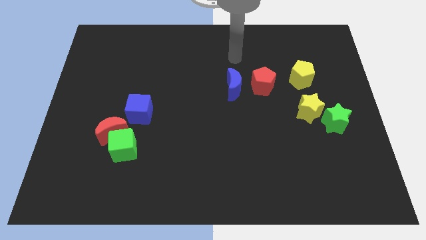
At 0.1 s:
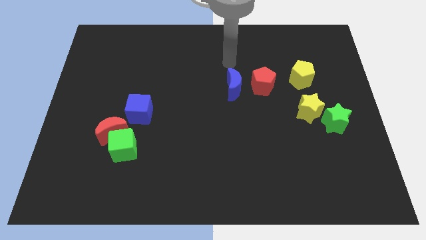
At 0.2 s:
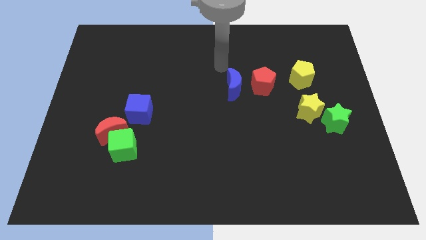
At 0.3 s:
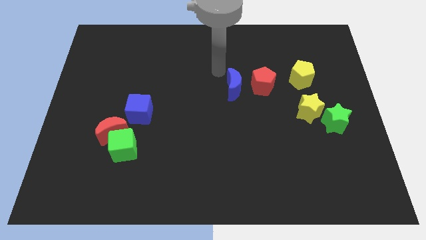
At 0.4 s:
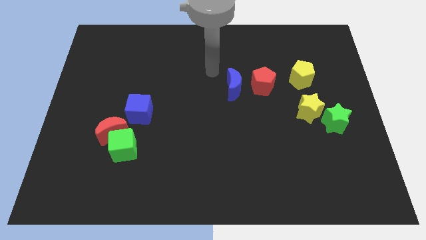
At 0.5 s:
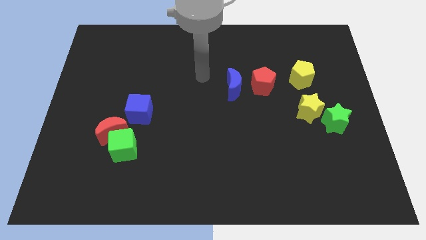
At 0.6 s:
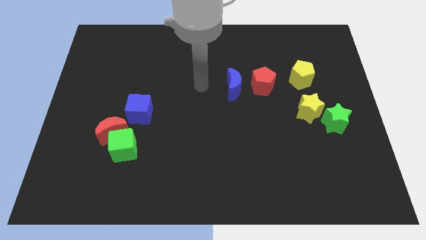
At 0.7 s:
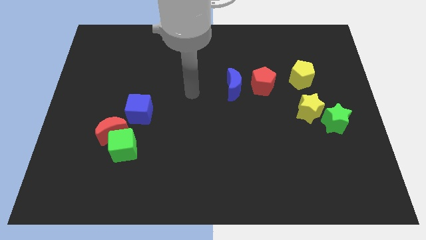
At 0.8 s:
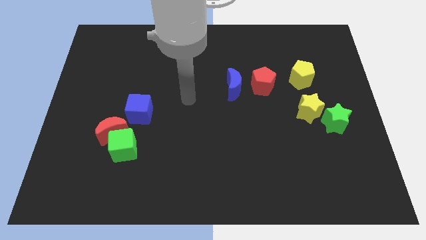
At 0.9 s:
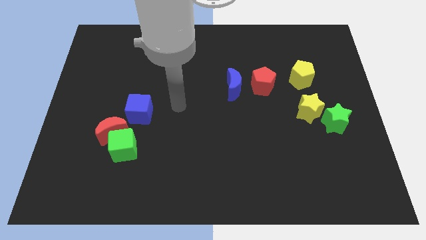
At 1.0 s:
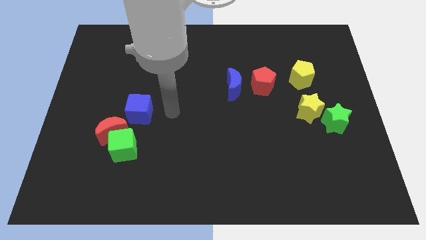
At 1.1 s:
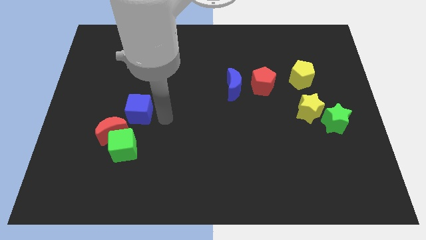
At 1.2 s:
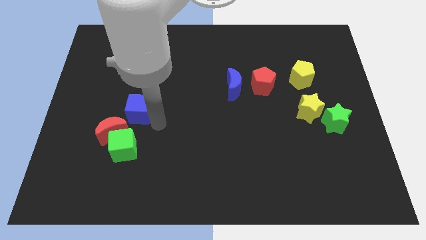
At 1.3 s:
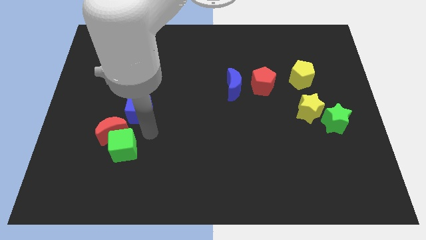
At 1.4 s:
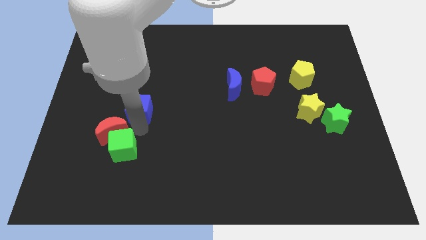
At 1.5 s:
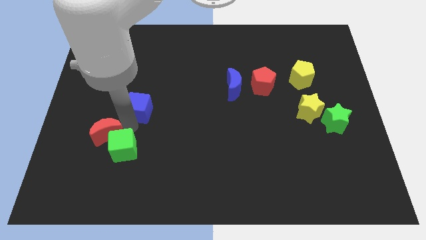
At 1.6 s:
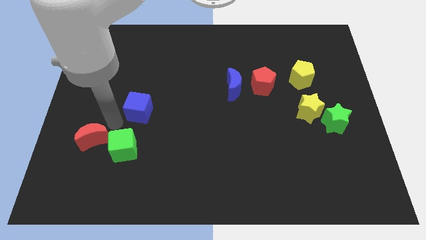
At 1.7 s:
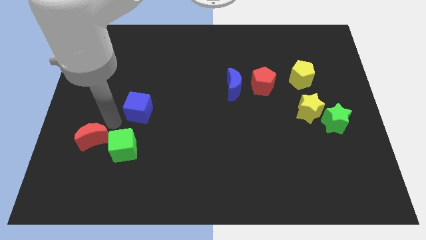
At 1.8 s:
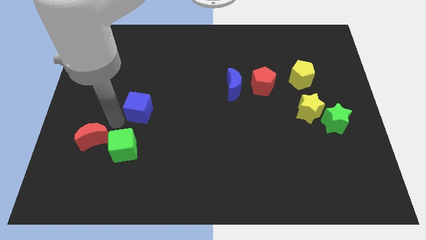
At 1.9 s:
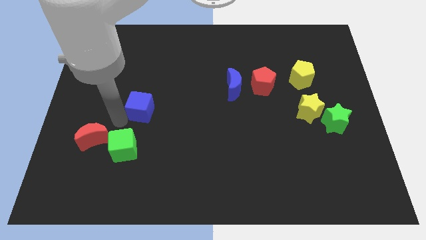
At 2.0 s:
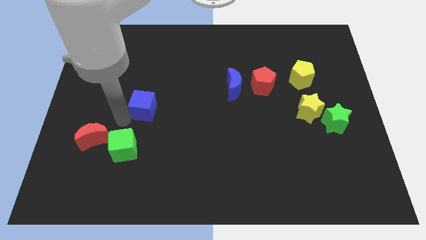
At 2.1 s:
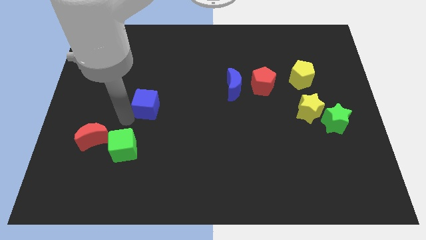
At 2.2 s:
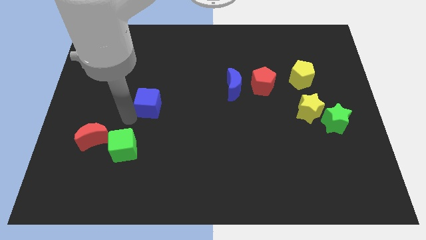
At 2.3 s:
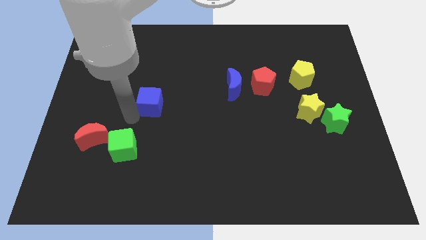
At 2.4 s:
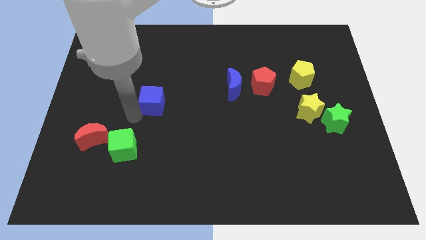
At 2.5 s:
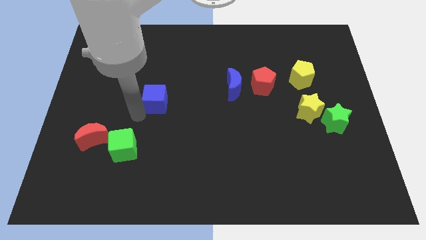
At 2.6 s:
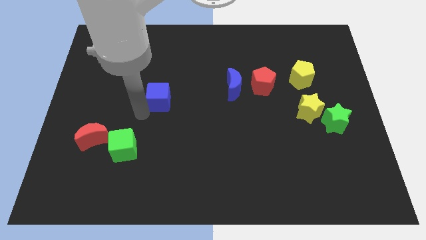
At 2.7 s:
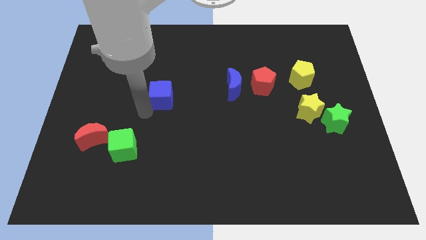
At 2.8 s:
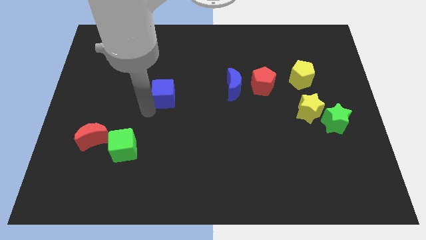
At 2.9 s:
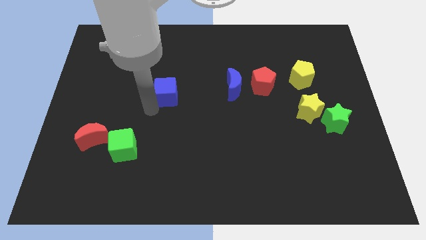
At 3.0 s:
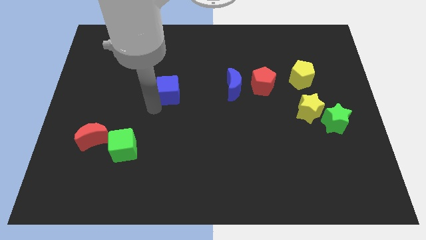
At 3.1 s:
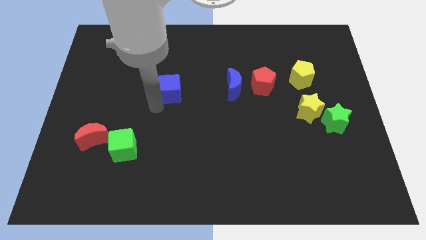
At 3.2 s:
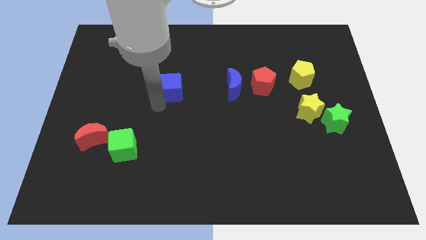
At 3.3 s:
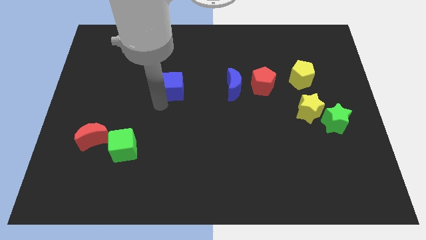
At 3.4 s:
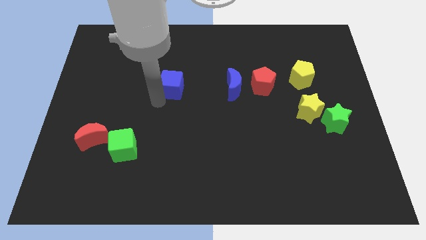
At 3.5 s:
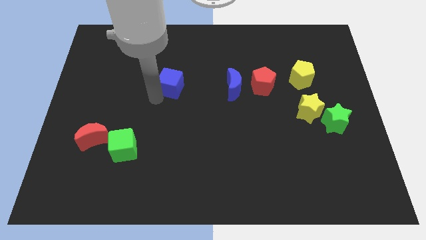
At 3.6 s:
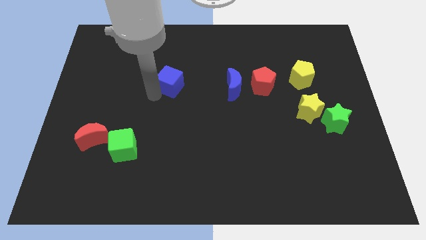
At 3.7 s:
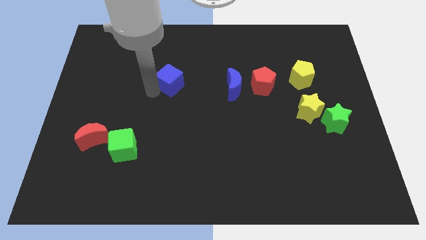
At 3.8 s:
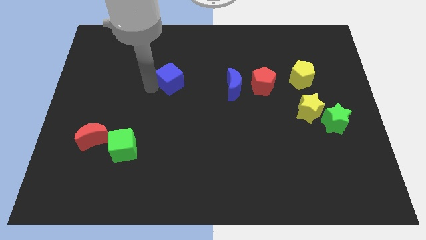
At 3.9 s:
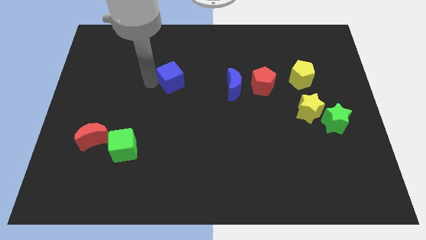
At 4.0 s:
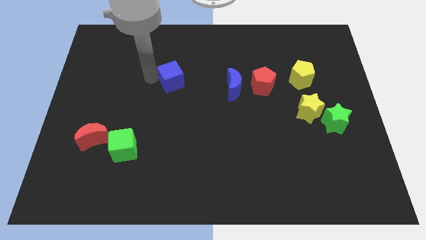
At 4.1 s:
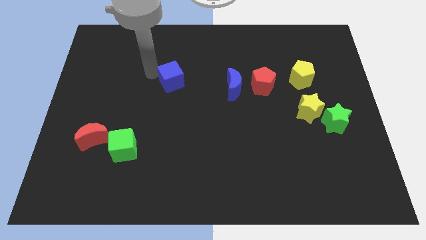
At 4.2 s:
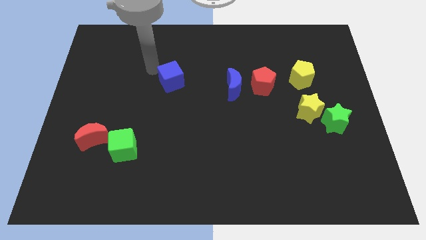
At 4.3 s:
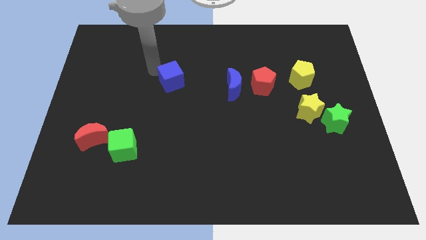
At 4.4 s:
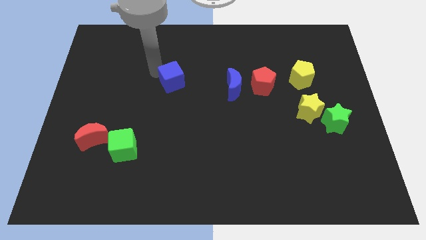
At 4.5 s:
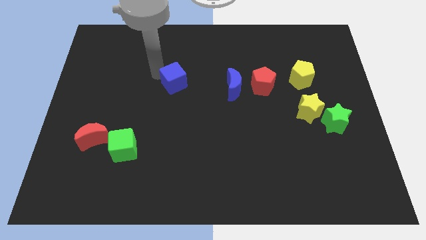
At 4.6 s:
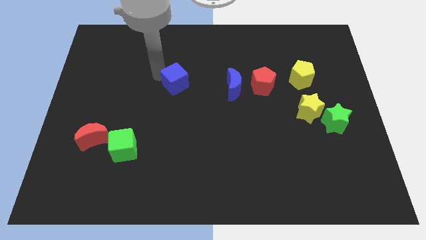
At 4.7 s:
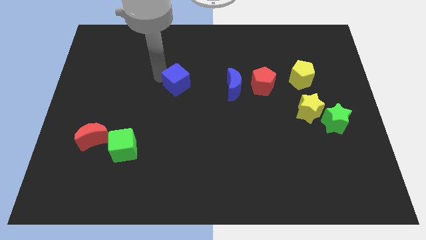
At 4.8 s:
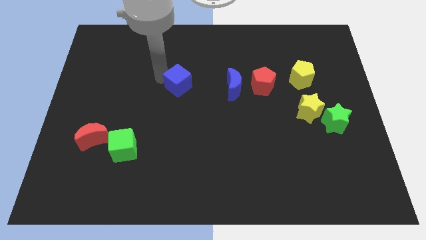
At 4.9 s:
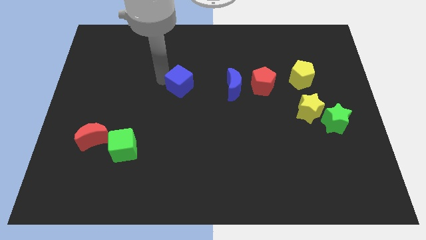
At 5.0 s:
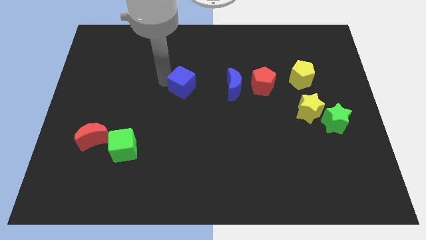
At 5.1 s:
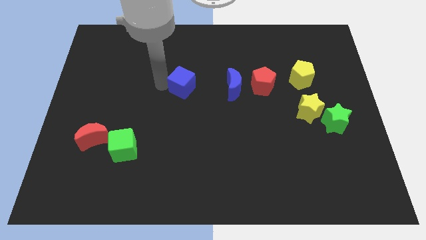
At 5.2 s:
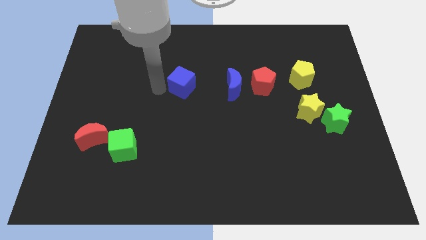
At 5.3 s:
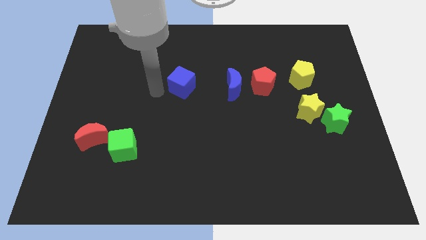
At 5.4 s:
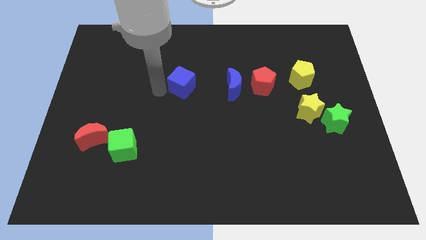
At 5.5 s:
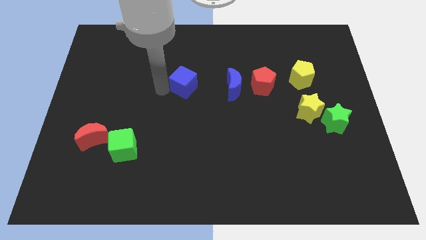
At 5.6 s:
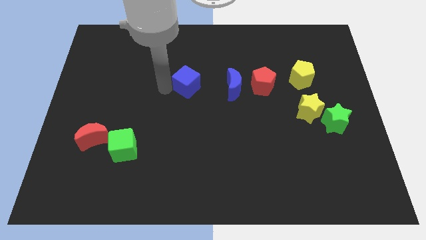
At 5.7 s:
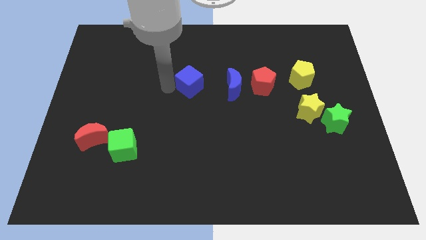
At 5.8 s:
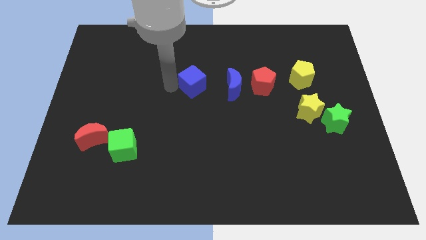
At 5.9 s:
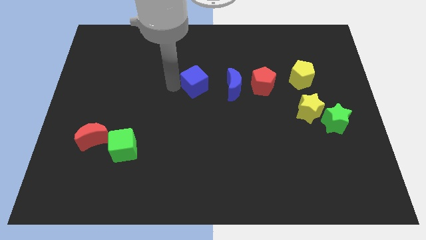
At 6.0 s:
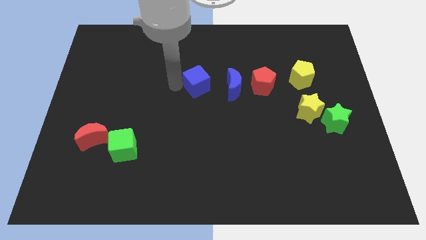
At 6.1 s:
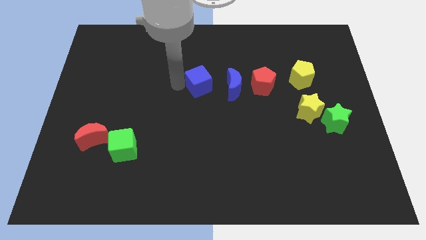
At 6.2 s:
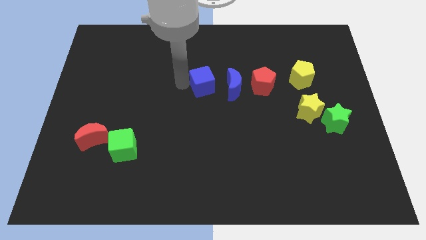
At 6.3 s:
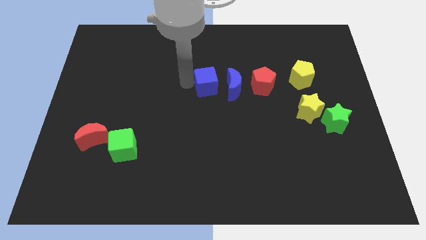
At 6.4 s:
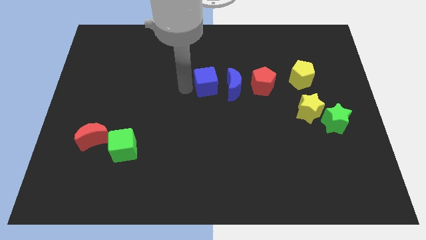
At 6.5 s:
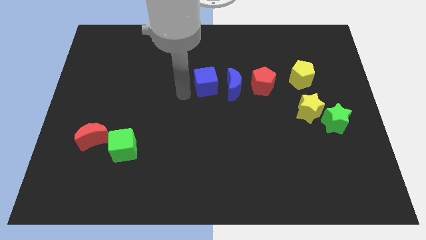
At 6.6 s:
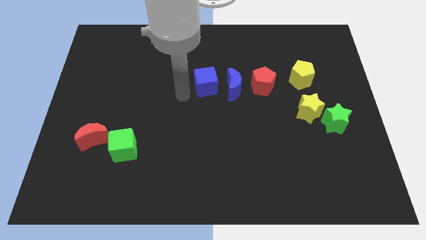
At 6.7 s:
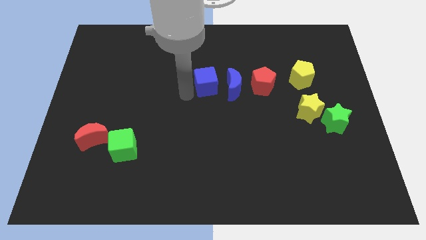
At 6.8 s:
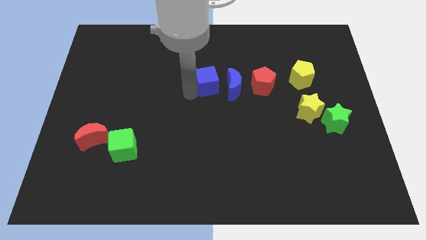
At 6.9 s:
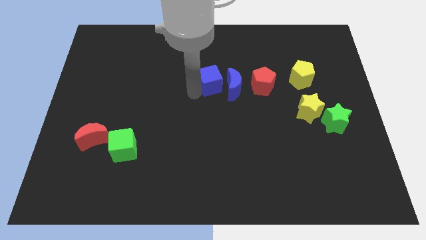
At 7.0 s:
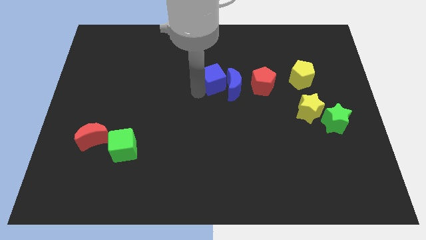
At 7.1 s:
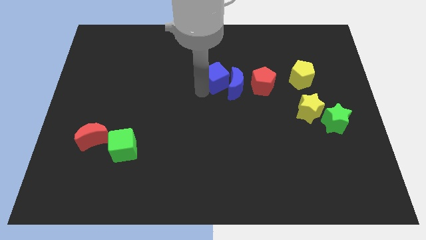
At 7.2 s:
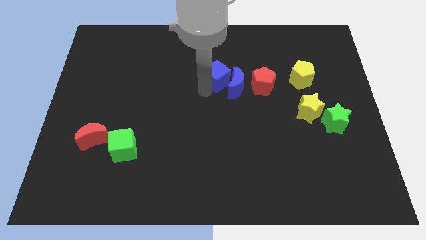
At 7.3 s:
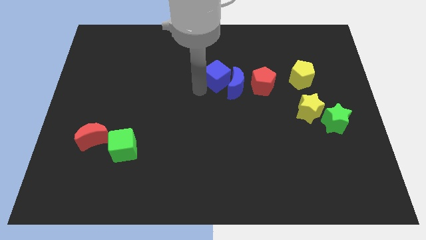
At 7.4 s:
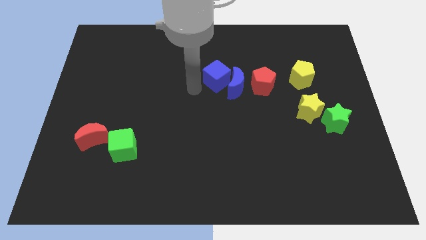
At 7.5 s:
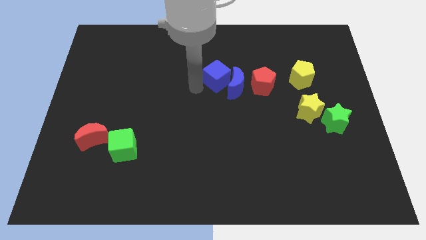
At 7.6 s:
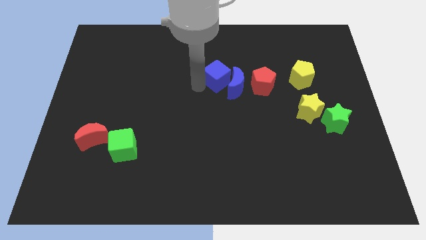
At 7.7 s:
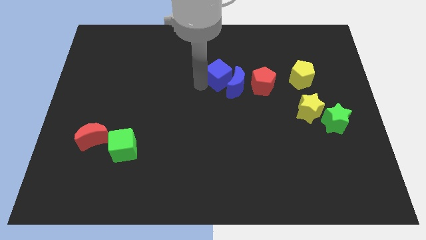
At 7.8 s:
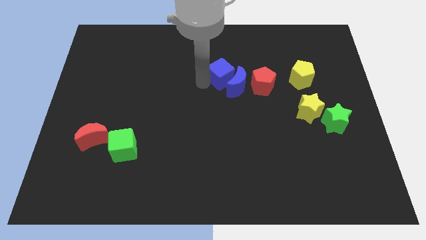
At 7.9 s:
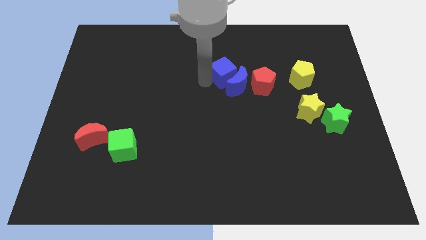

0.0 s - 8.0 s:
put the blue cube to the top left side of the red pentagon
